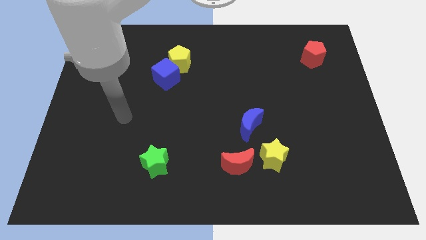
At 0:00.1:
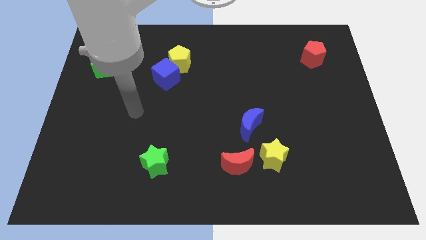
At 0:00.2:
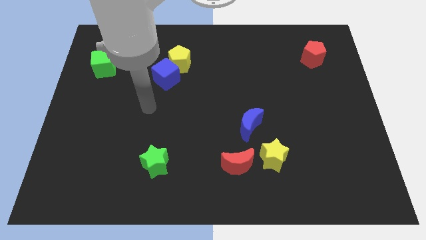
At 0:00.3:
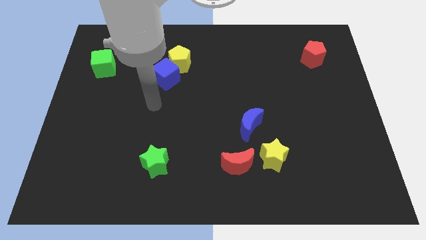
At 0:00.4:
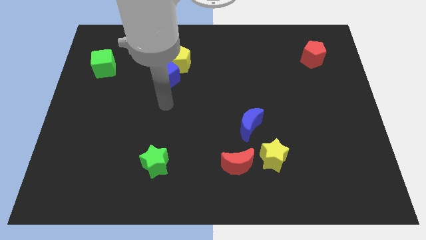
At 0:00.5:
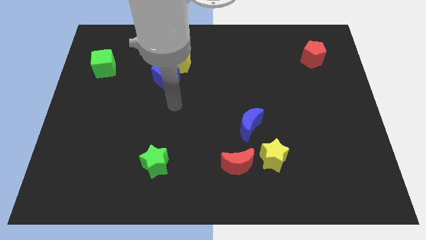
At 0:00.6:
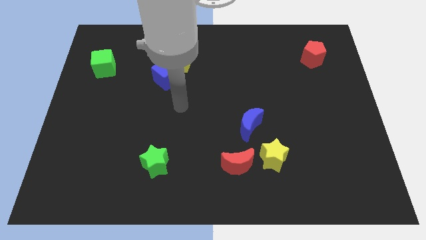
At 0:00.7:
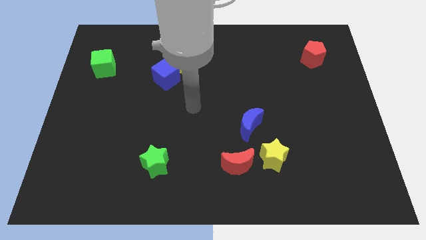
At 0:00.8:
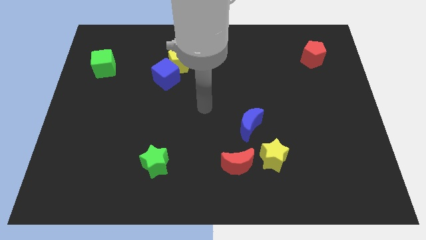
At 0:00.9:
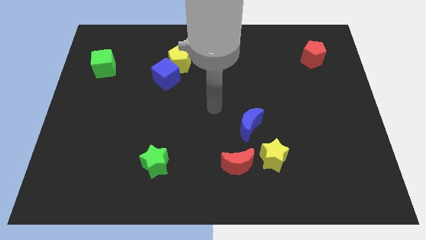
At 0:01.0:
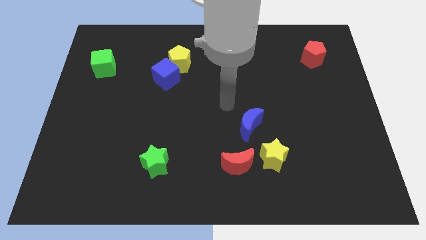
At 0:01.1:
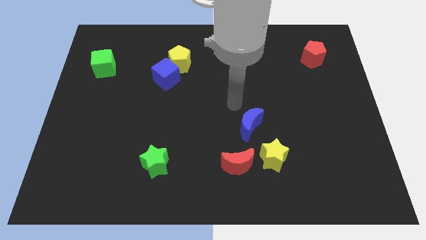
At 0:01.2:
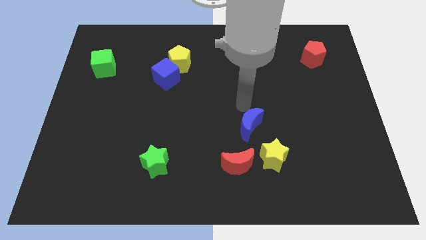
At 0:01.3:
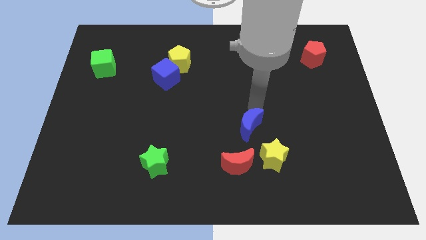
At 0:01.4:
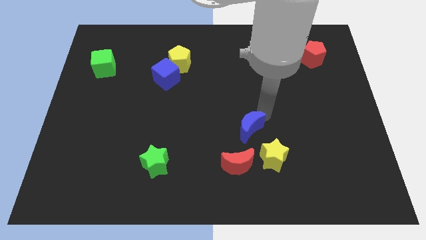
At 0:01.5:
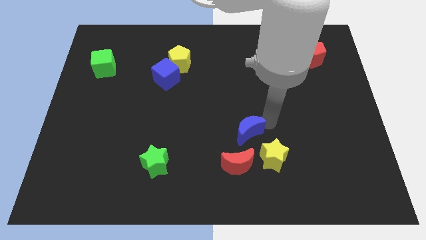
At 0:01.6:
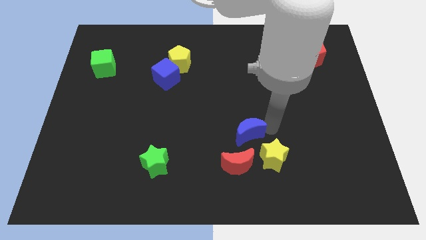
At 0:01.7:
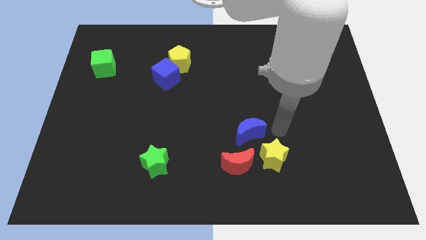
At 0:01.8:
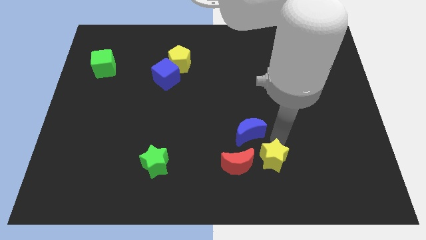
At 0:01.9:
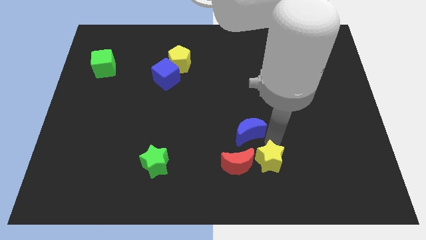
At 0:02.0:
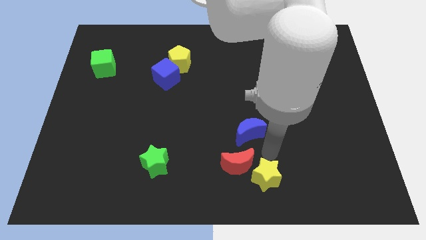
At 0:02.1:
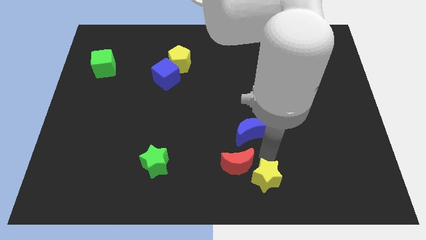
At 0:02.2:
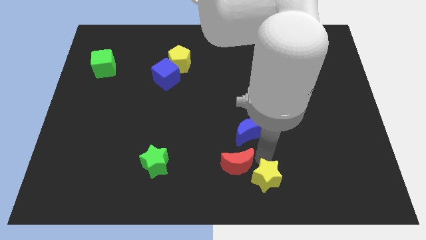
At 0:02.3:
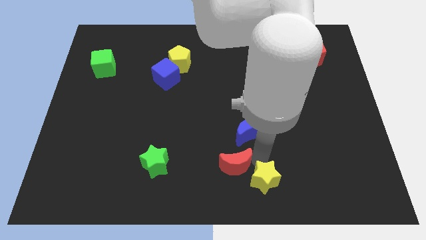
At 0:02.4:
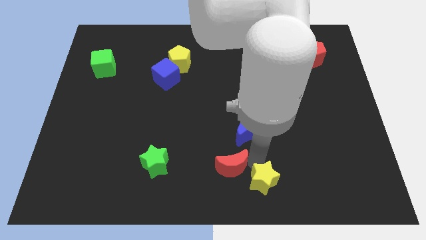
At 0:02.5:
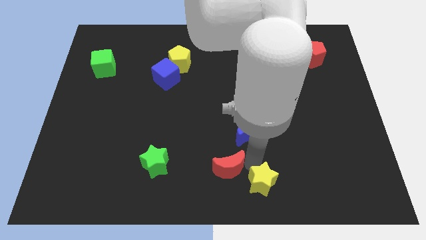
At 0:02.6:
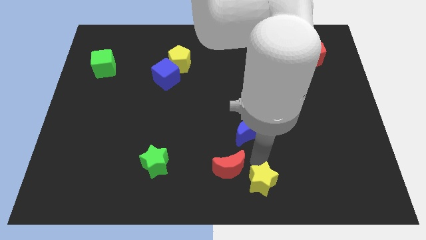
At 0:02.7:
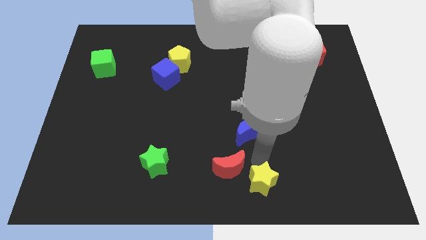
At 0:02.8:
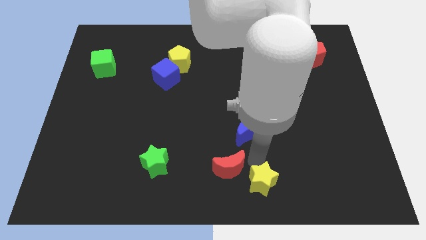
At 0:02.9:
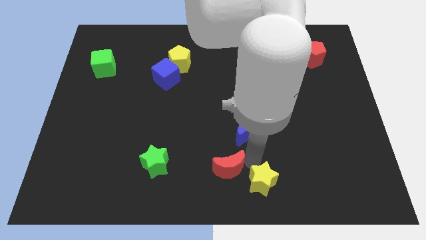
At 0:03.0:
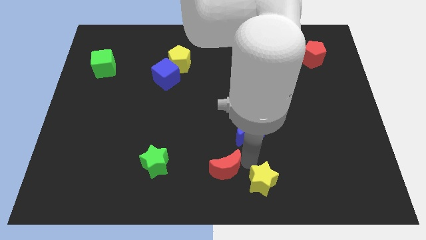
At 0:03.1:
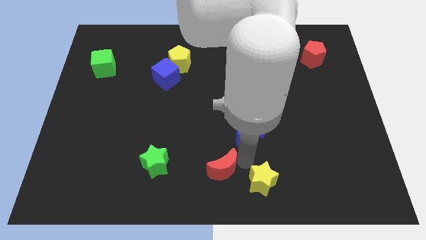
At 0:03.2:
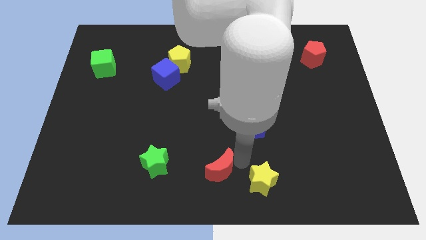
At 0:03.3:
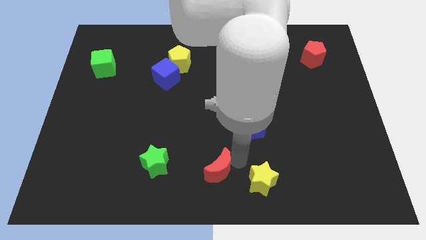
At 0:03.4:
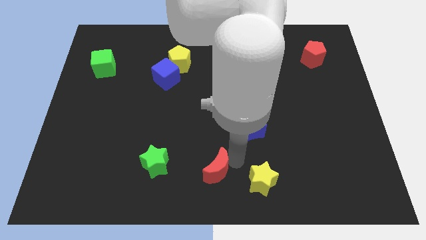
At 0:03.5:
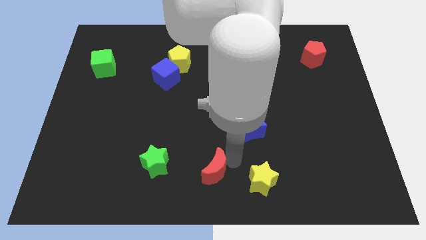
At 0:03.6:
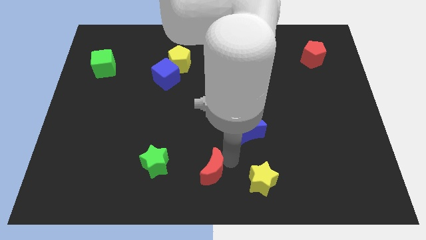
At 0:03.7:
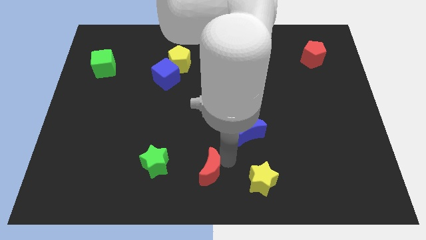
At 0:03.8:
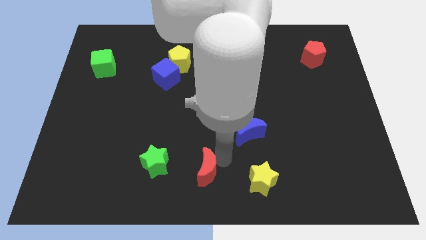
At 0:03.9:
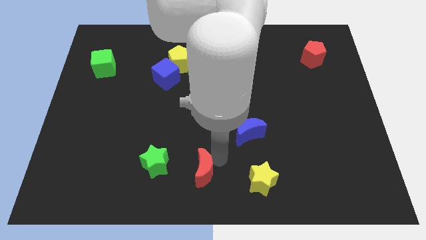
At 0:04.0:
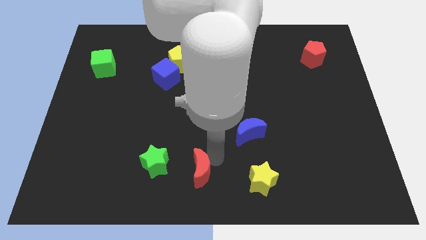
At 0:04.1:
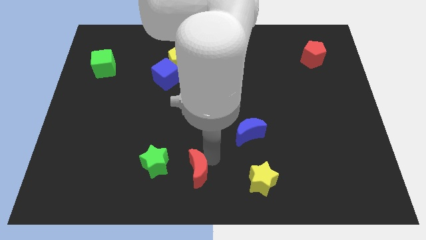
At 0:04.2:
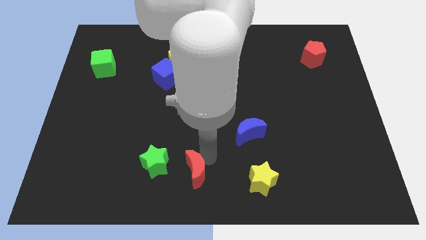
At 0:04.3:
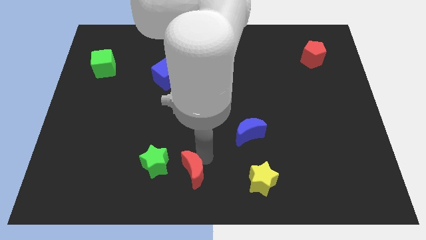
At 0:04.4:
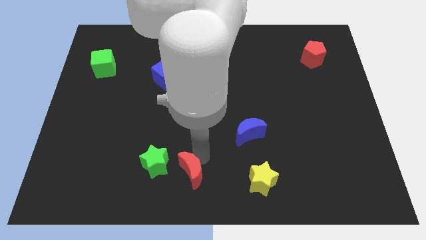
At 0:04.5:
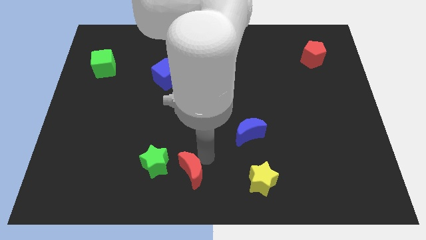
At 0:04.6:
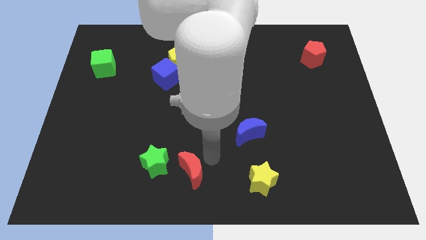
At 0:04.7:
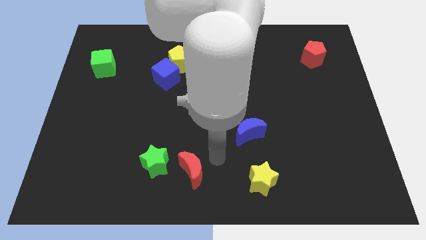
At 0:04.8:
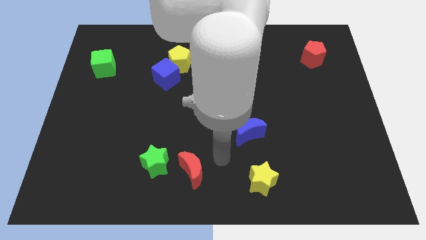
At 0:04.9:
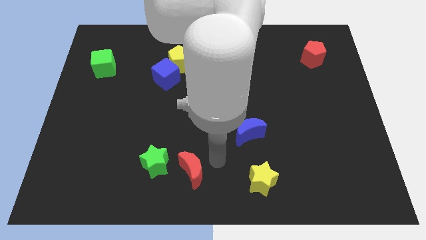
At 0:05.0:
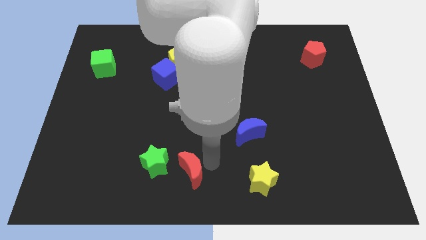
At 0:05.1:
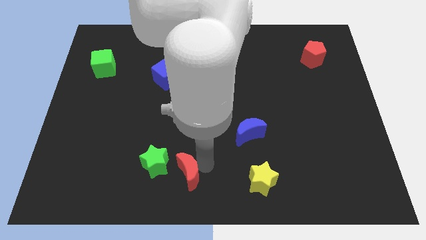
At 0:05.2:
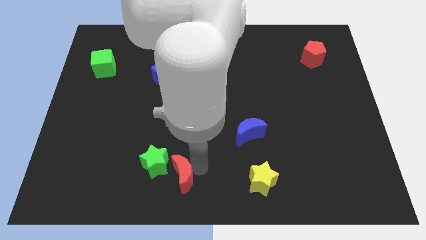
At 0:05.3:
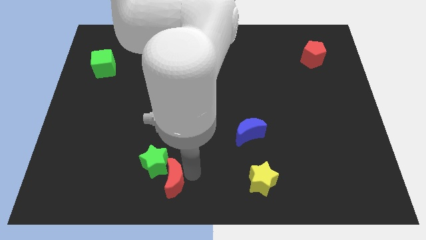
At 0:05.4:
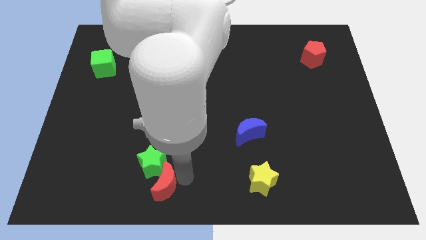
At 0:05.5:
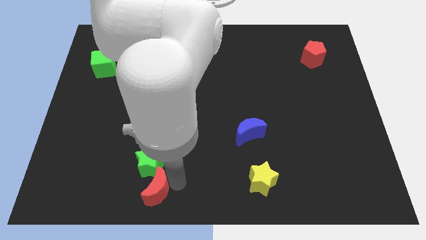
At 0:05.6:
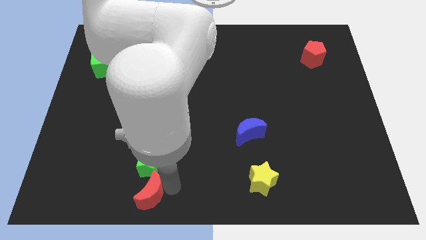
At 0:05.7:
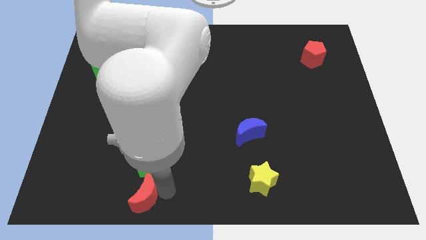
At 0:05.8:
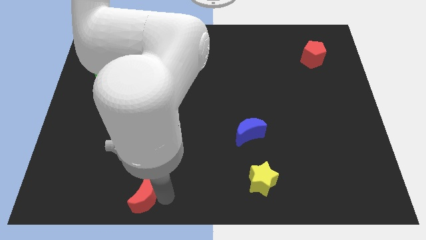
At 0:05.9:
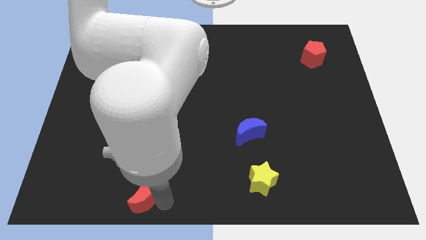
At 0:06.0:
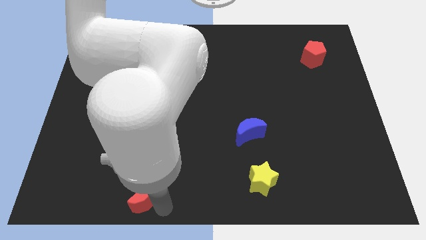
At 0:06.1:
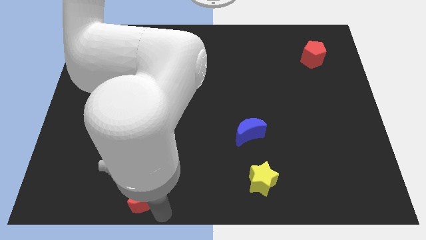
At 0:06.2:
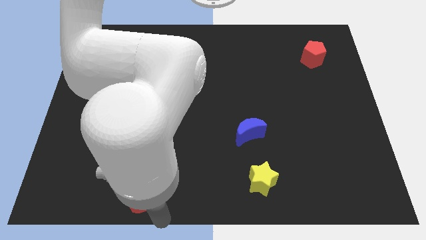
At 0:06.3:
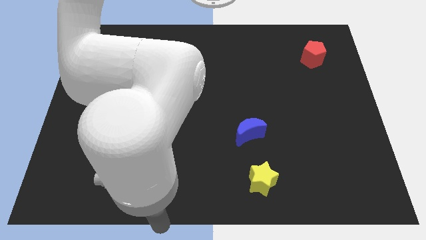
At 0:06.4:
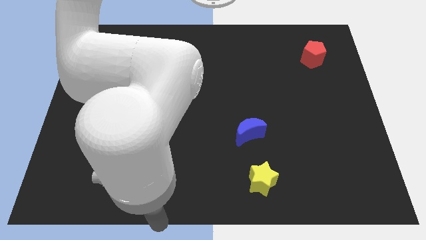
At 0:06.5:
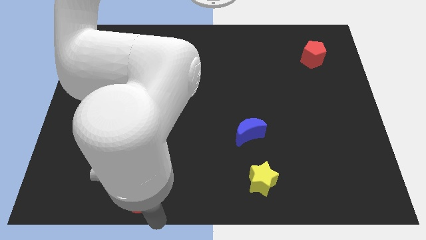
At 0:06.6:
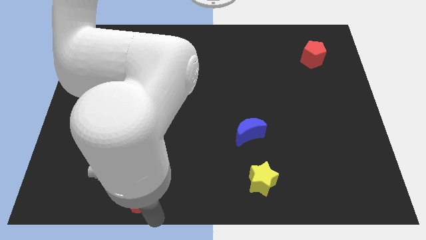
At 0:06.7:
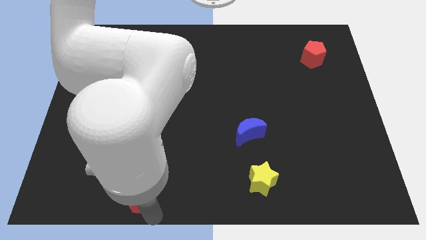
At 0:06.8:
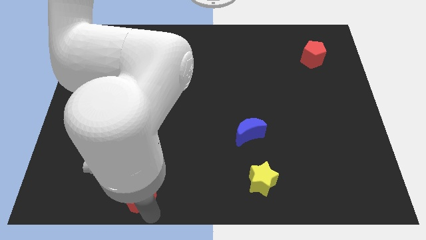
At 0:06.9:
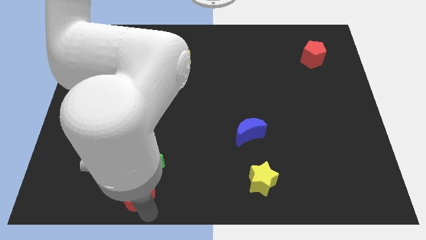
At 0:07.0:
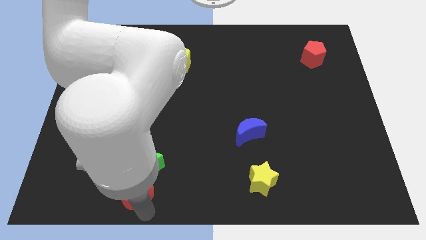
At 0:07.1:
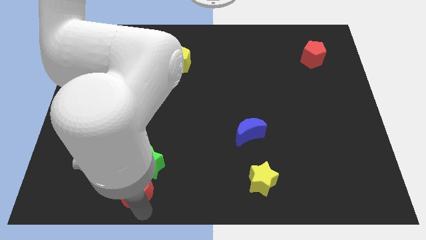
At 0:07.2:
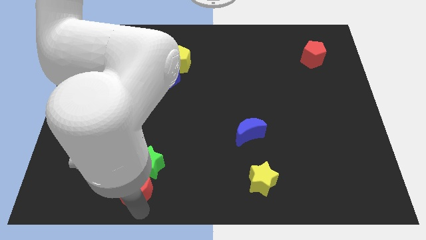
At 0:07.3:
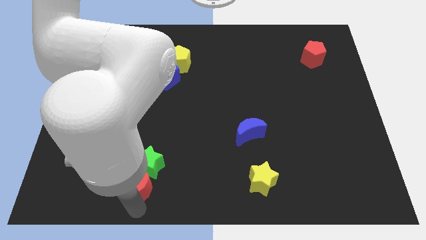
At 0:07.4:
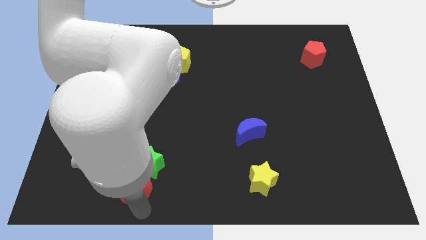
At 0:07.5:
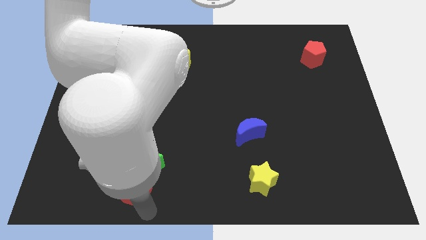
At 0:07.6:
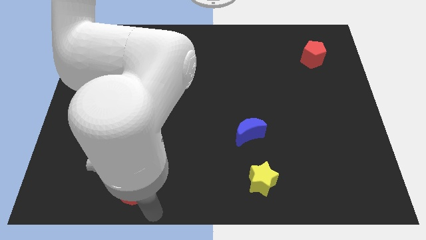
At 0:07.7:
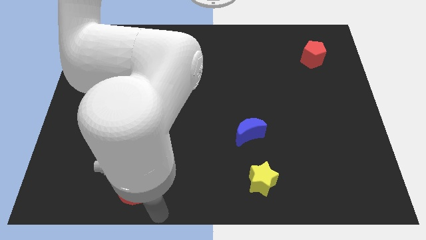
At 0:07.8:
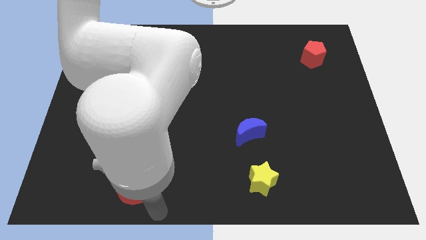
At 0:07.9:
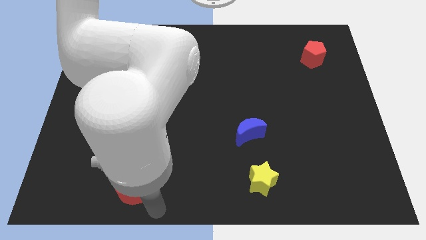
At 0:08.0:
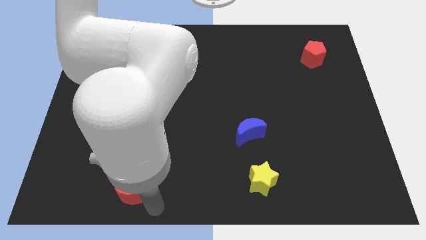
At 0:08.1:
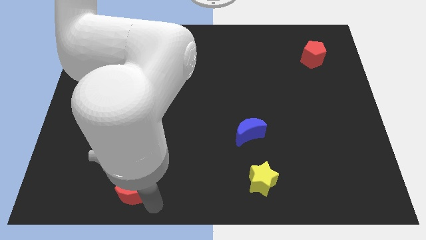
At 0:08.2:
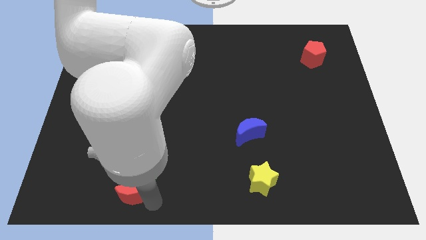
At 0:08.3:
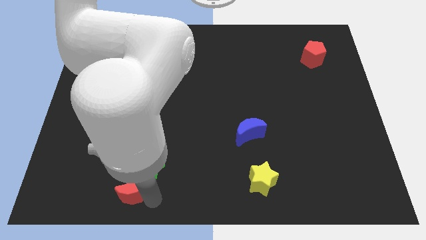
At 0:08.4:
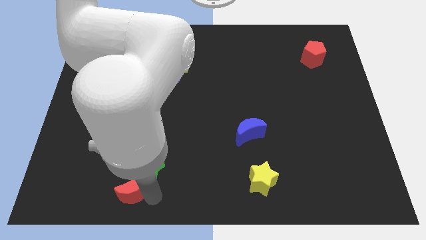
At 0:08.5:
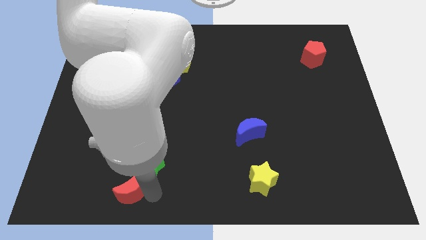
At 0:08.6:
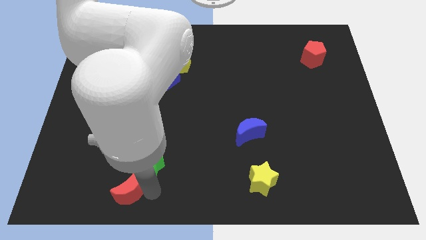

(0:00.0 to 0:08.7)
push the red moon left

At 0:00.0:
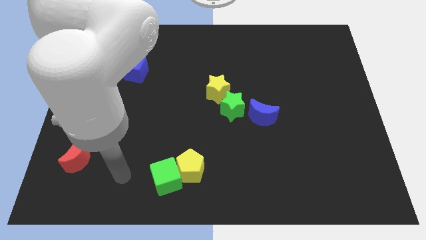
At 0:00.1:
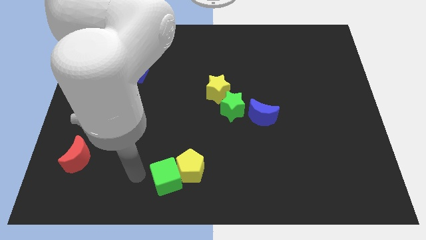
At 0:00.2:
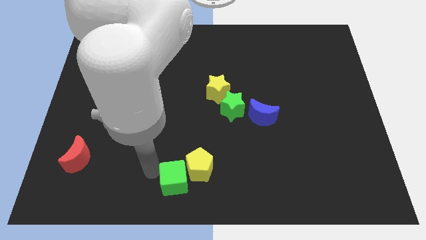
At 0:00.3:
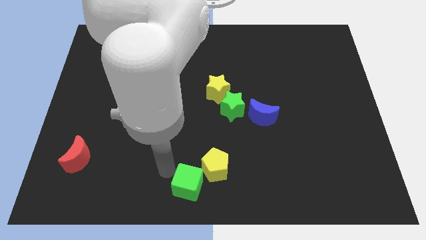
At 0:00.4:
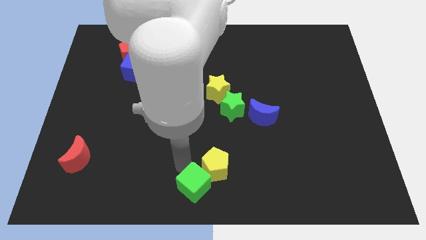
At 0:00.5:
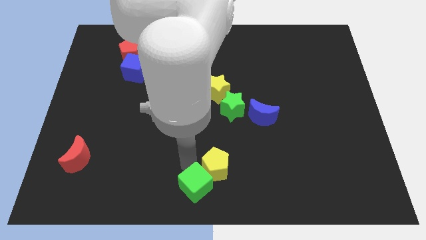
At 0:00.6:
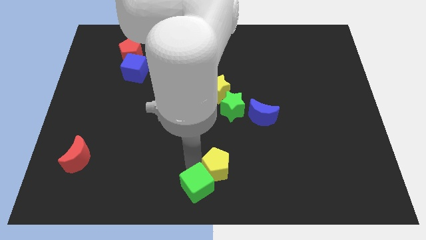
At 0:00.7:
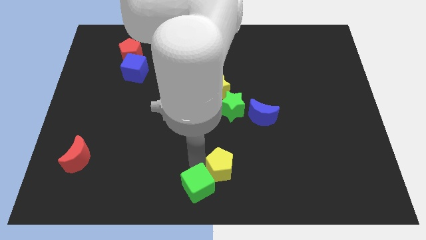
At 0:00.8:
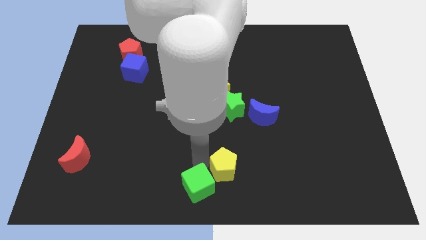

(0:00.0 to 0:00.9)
push the yellow pentagon a bit right
